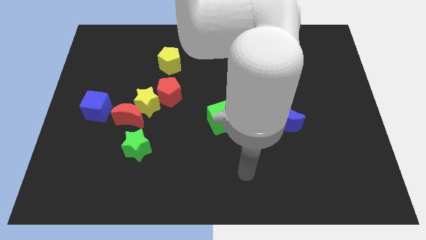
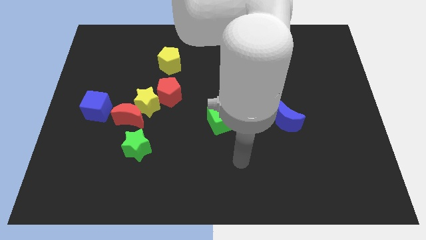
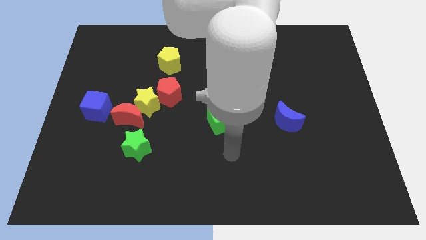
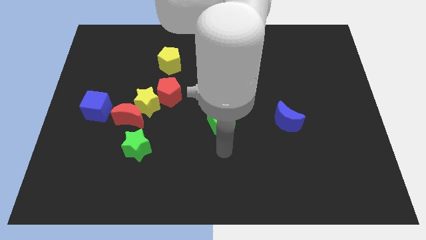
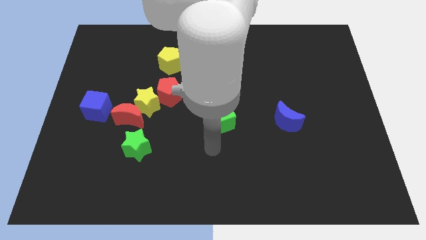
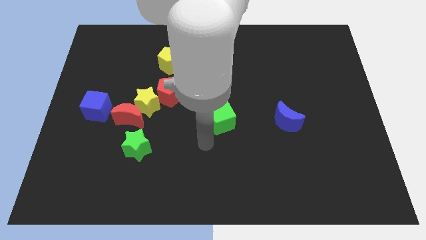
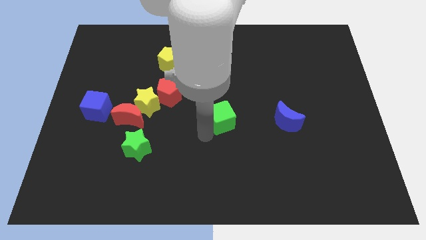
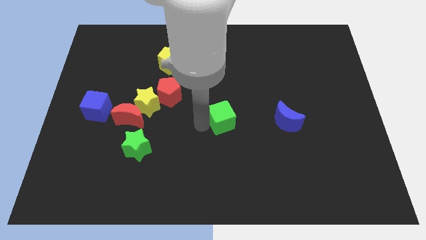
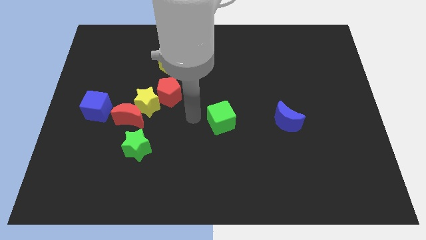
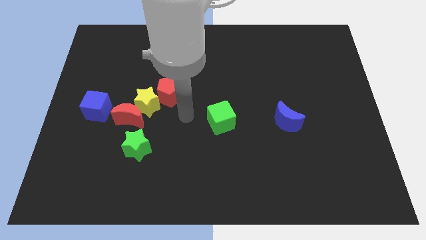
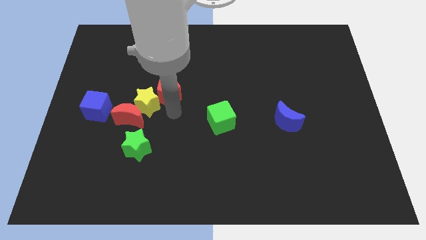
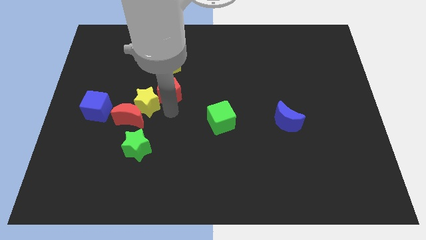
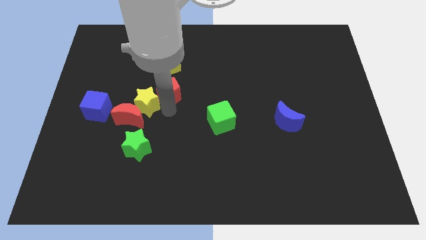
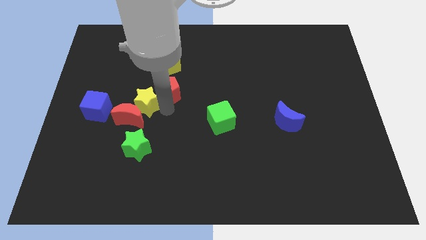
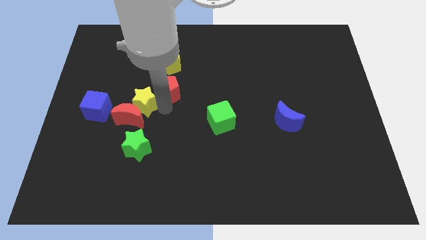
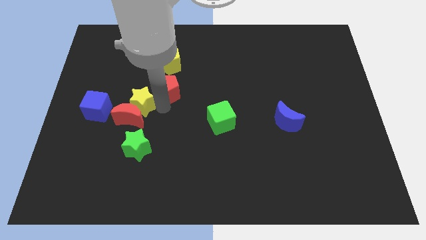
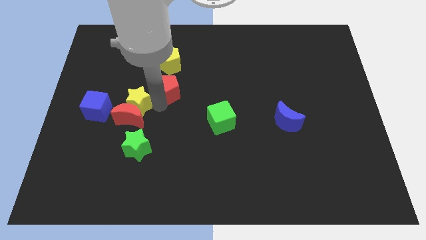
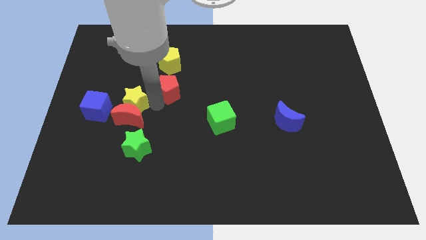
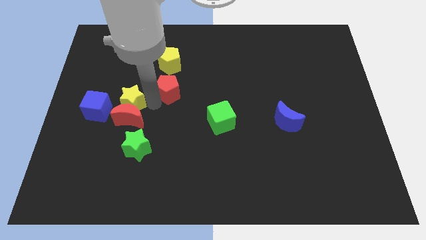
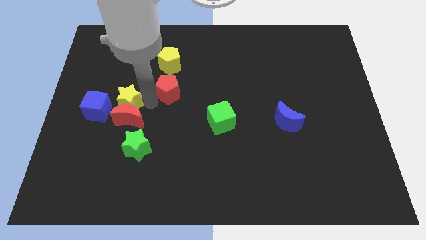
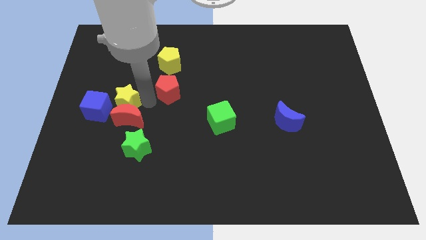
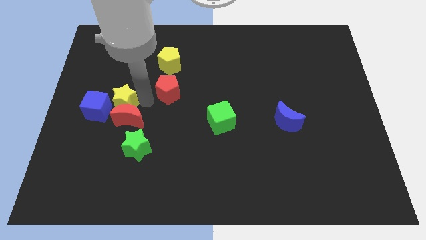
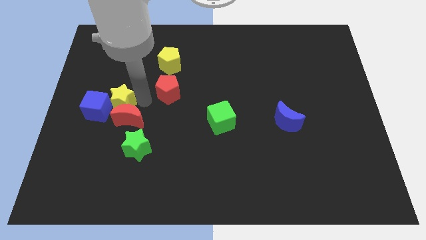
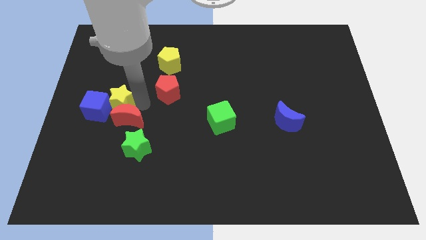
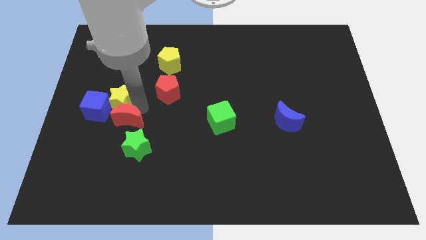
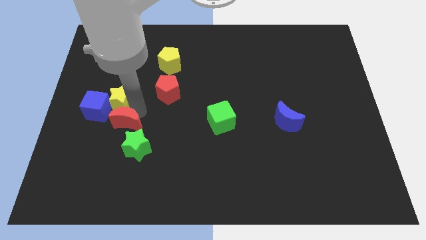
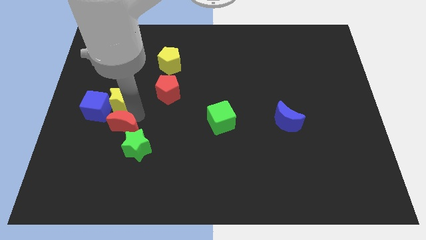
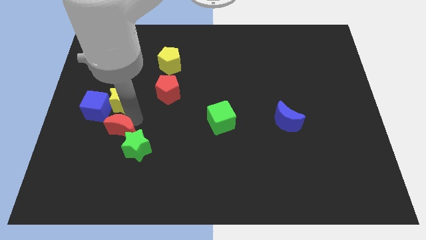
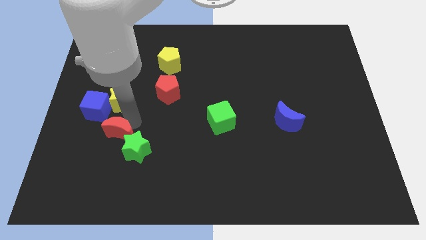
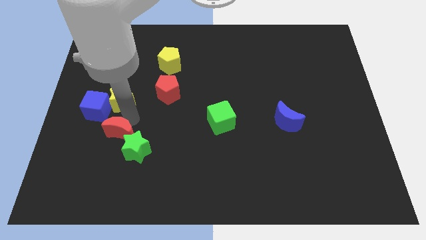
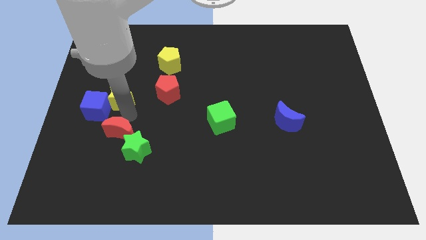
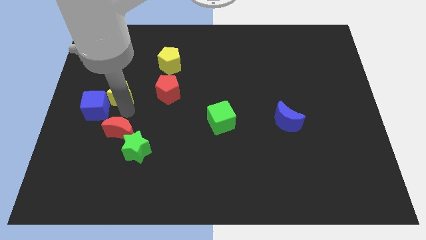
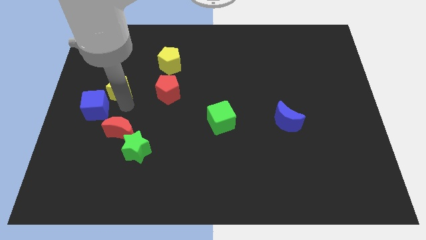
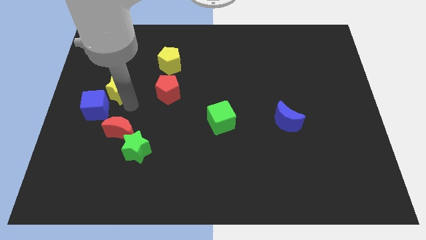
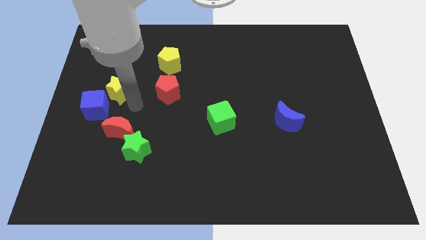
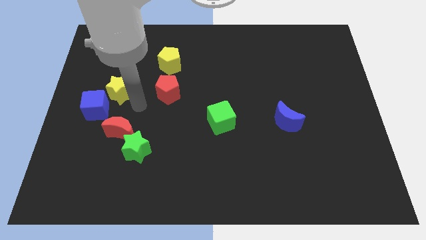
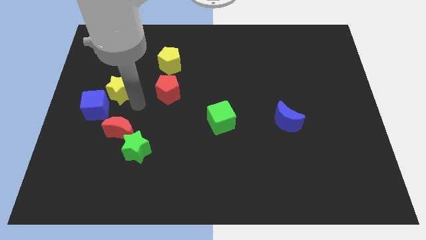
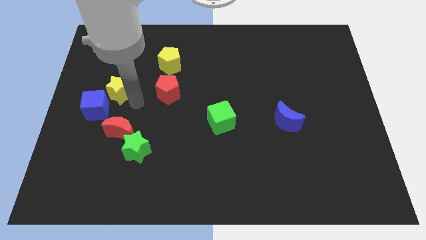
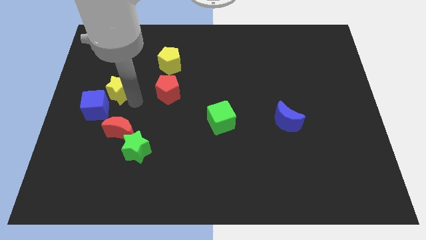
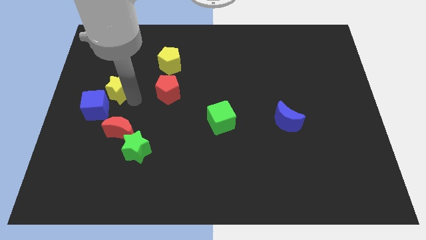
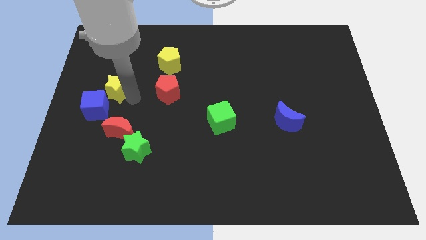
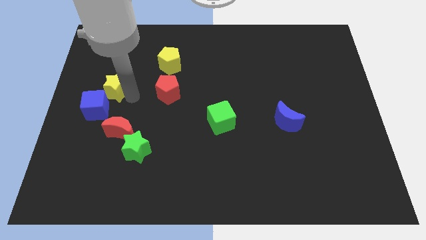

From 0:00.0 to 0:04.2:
pull the yellow star apart from the red moon and red pentagon

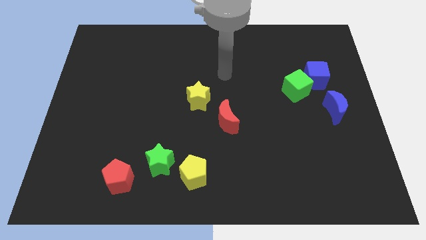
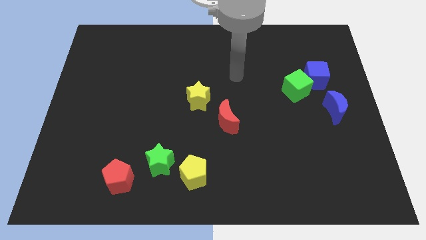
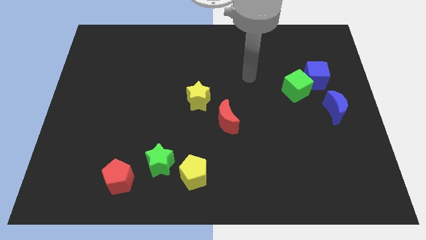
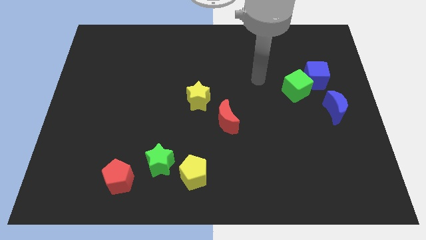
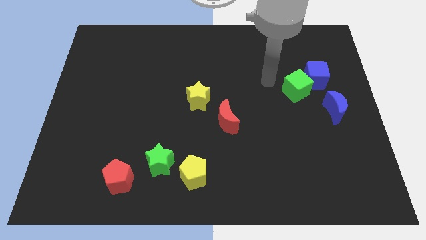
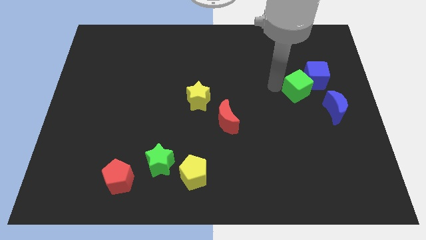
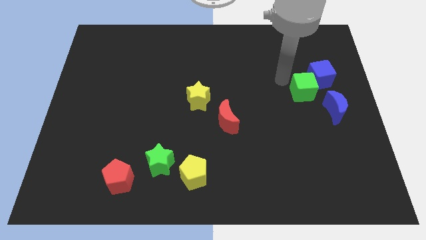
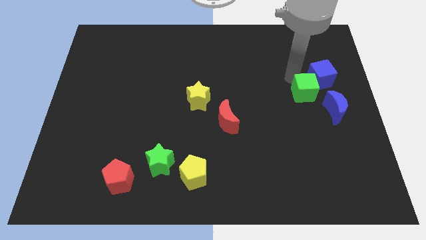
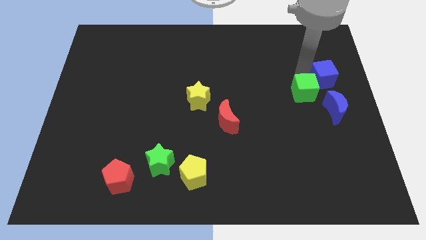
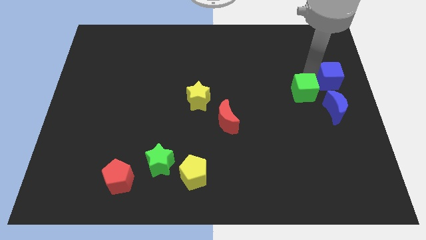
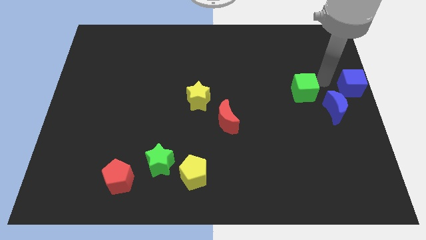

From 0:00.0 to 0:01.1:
pull the green cube apart from the blue cube

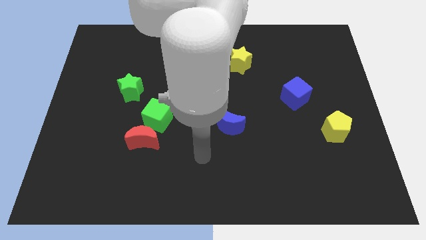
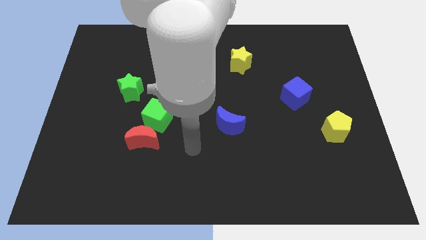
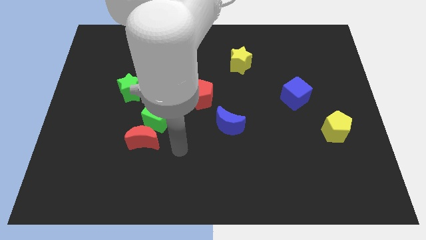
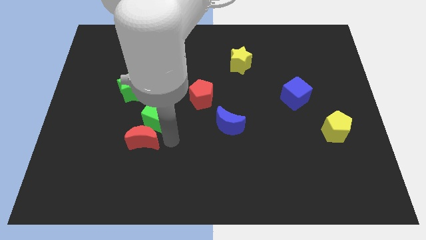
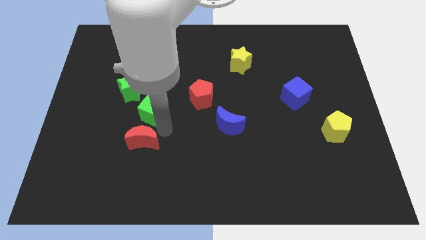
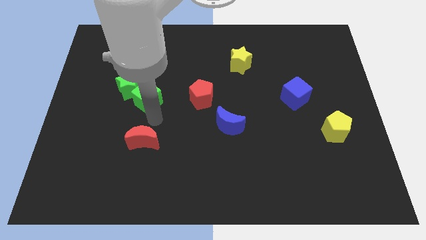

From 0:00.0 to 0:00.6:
separate the red moon from the green cube

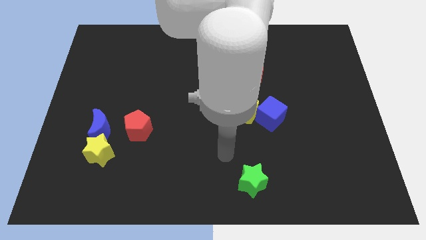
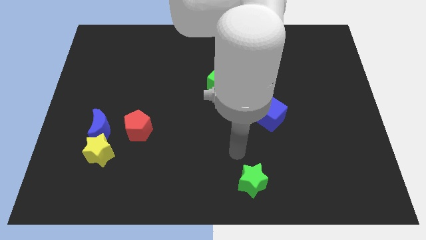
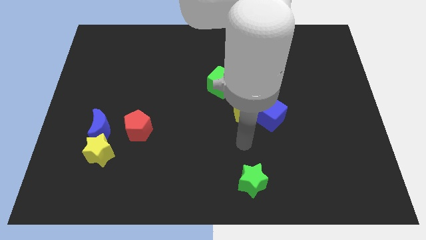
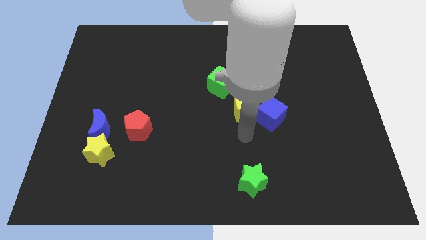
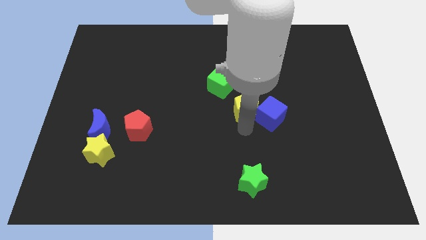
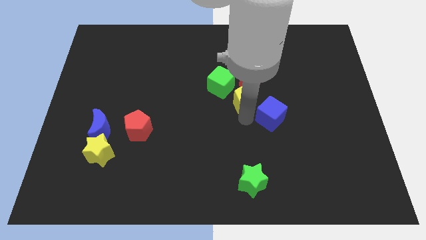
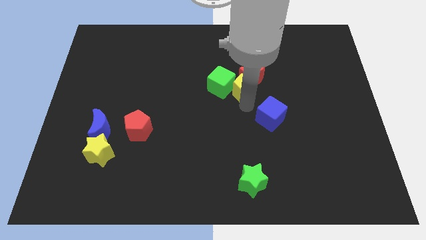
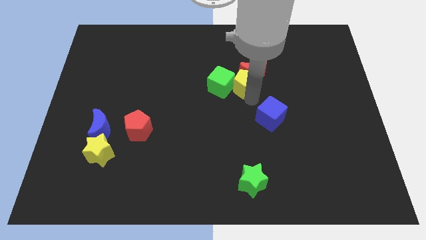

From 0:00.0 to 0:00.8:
separate the blue cube from the yellow pentagon

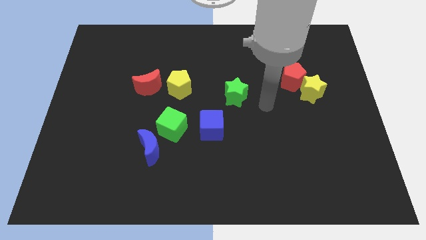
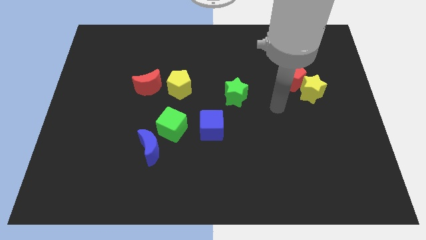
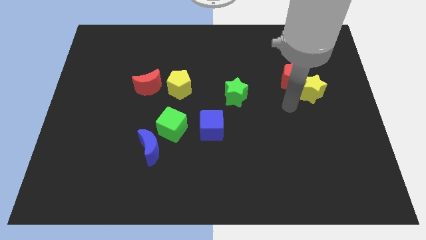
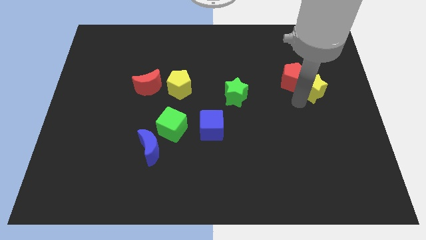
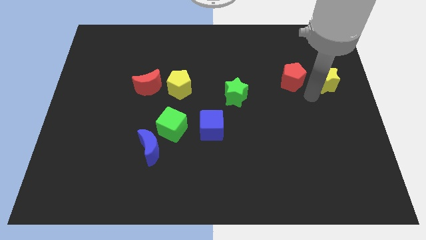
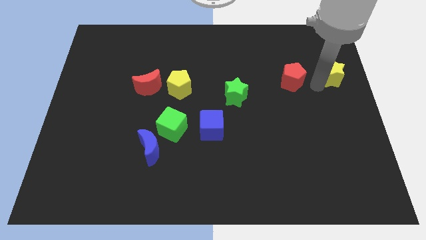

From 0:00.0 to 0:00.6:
separate the red pentagon from the yellow star

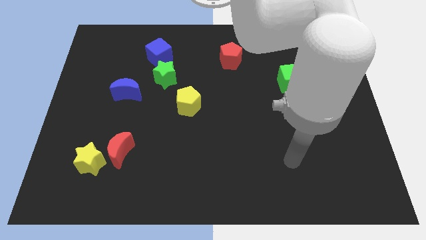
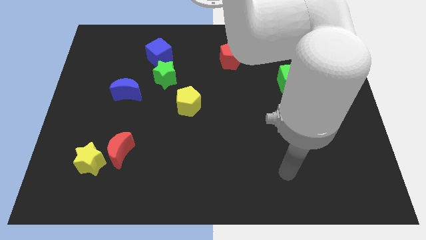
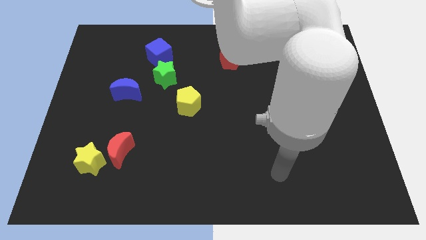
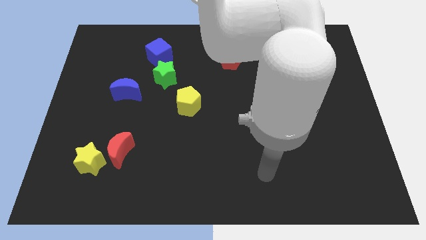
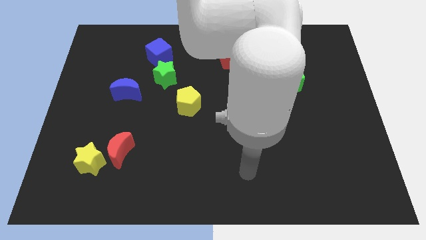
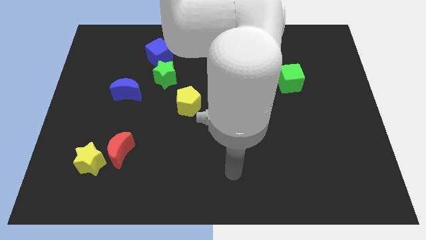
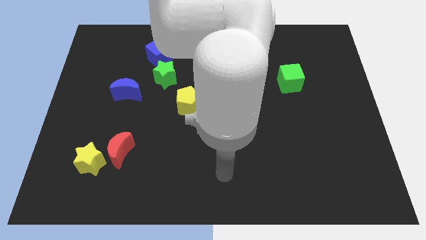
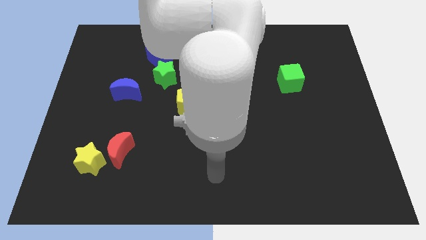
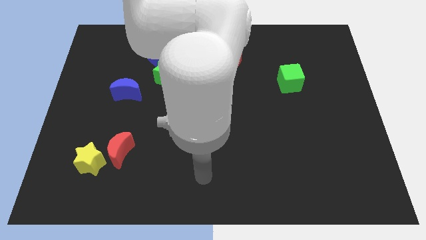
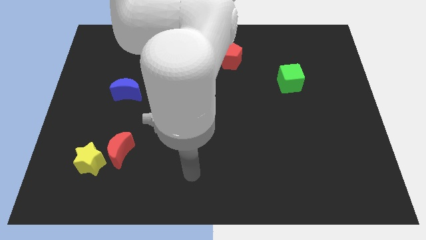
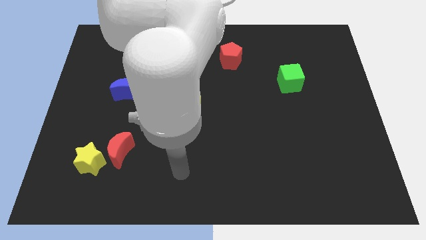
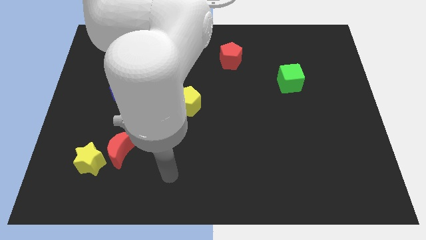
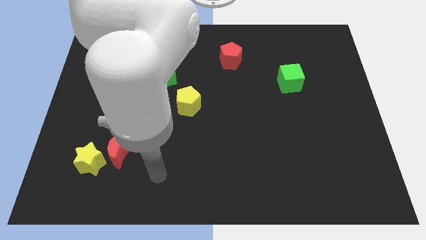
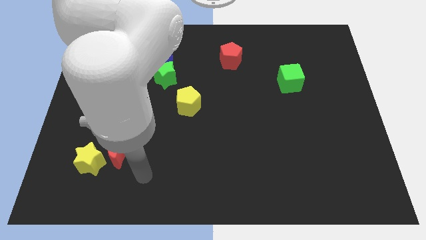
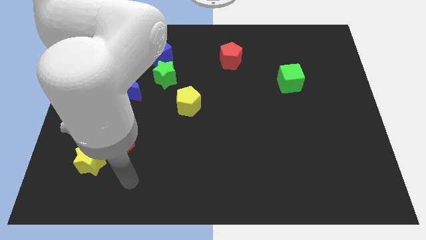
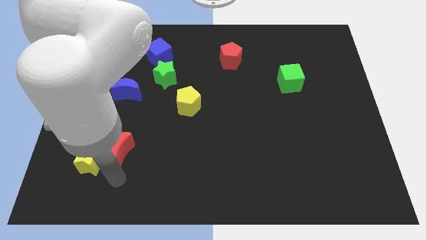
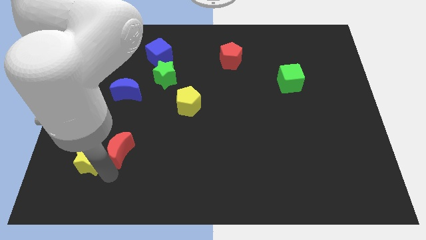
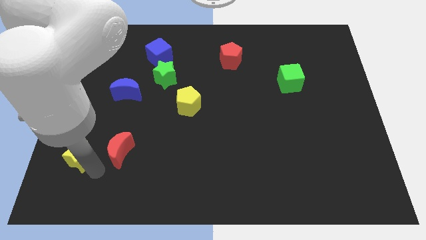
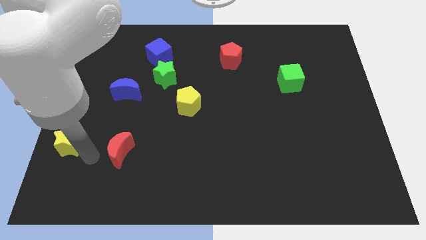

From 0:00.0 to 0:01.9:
move the red moon away from the yellow star

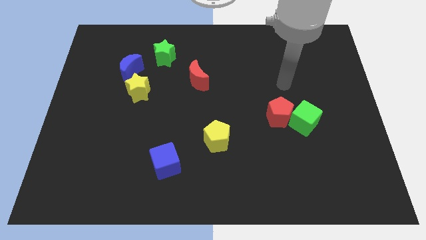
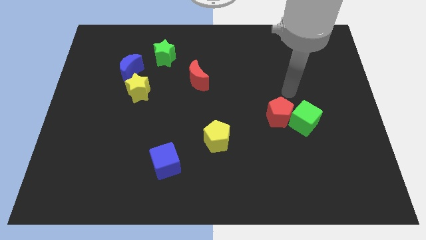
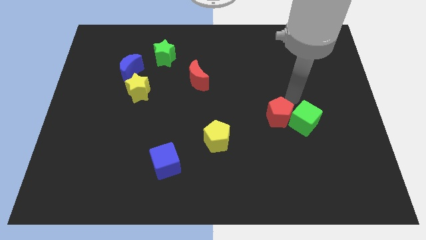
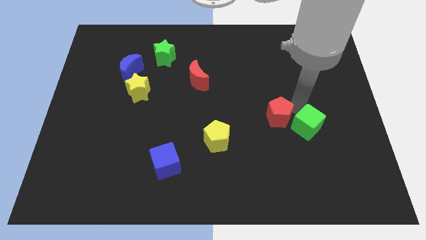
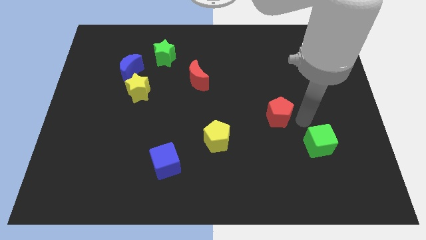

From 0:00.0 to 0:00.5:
pull the red pentagon apart from the green cube
